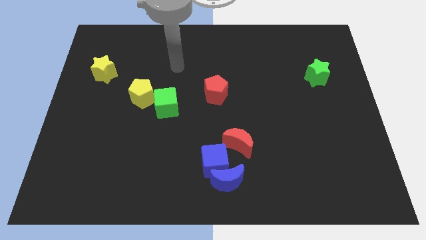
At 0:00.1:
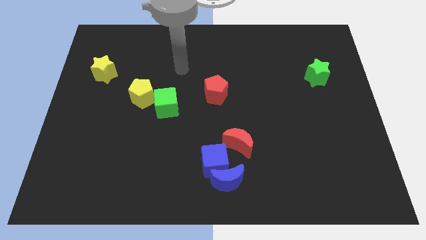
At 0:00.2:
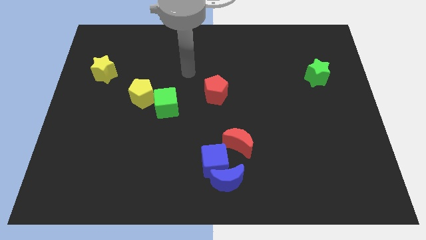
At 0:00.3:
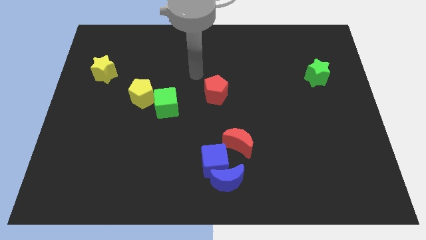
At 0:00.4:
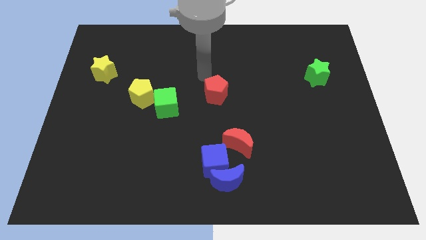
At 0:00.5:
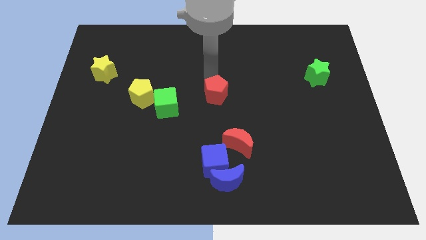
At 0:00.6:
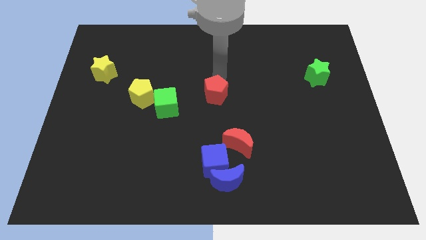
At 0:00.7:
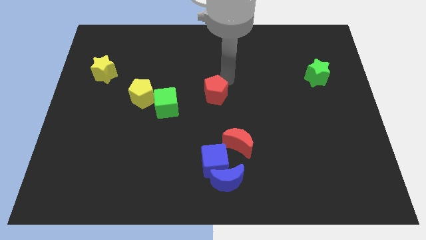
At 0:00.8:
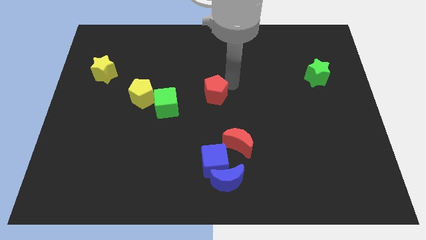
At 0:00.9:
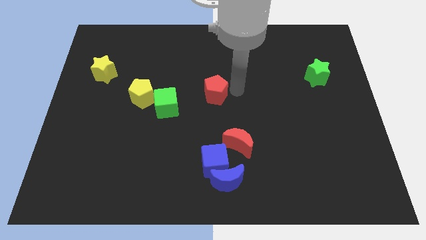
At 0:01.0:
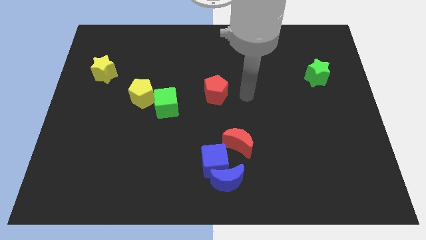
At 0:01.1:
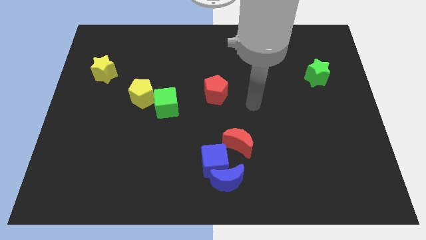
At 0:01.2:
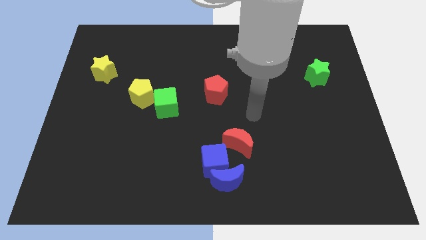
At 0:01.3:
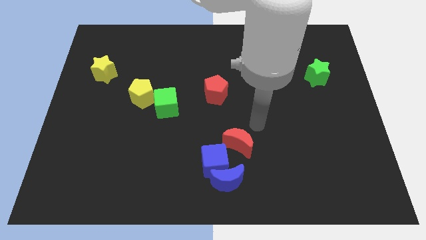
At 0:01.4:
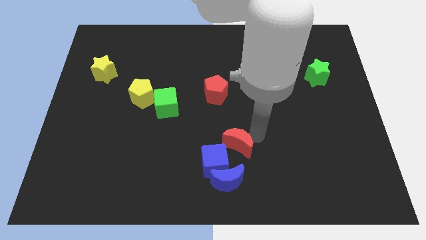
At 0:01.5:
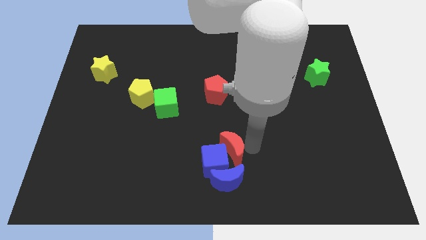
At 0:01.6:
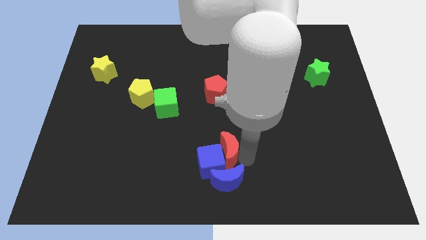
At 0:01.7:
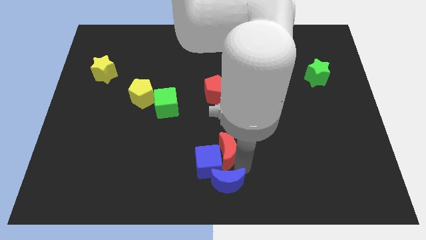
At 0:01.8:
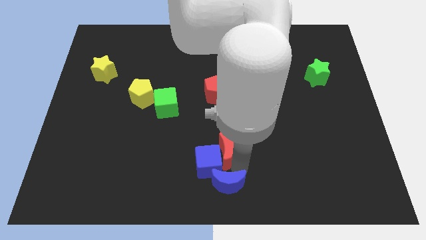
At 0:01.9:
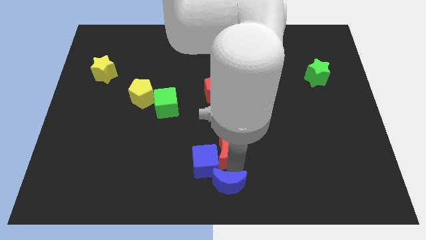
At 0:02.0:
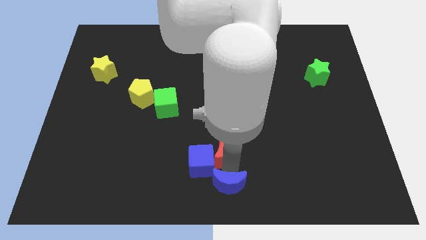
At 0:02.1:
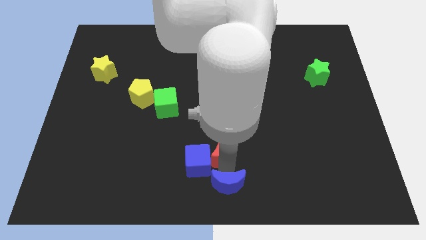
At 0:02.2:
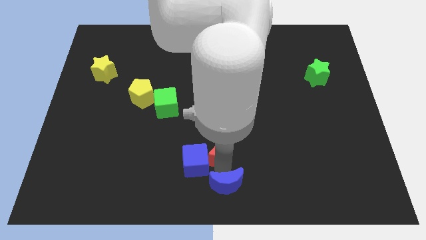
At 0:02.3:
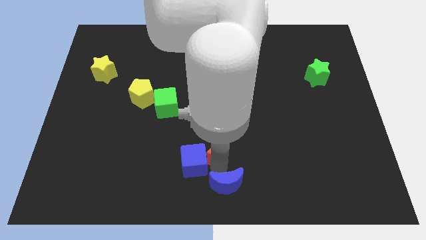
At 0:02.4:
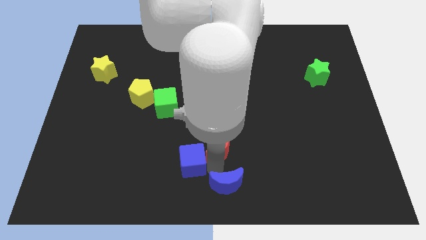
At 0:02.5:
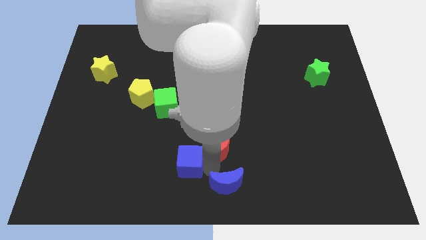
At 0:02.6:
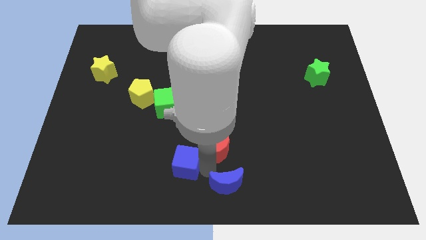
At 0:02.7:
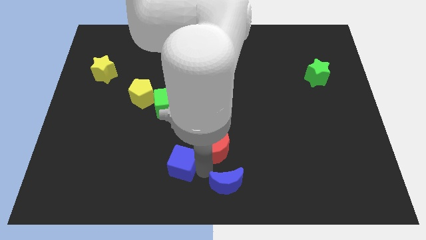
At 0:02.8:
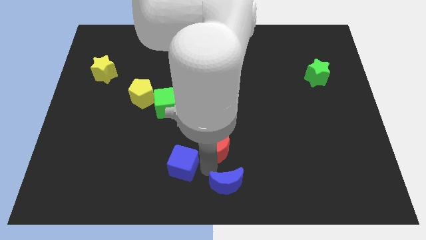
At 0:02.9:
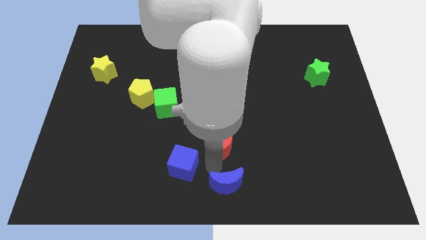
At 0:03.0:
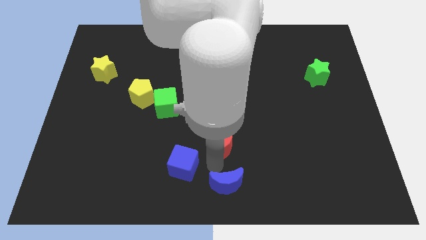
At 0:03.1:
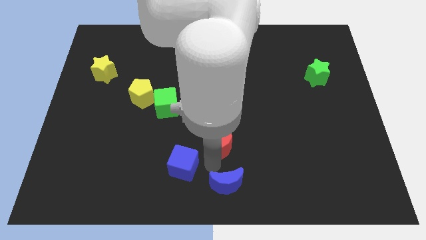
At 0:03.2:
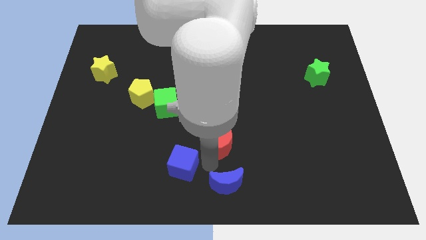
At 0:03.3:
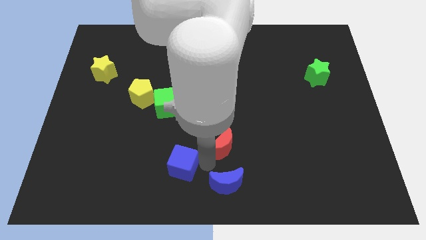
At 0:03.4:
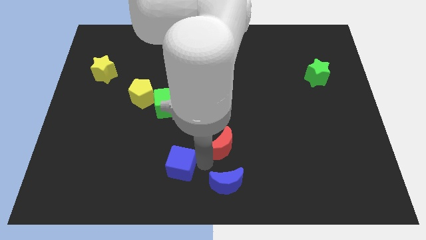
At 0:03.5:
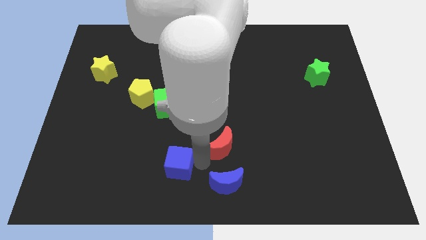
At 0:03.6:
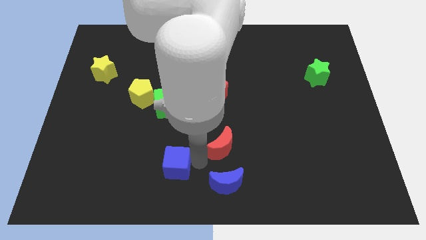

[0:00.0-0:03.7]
separate the blue cube from the blue moon and red moon

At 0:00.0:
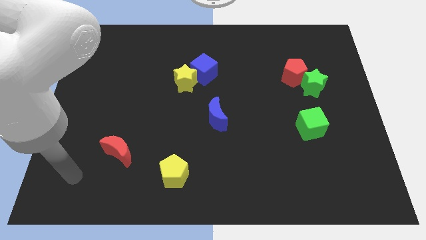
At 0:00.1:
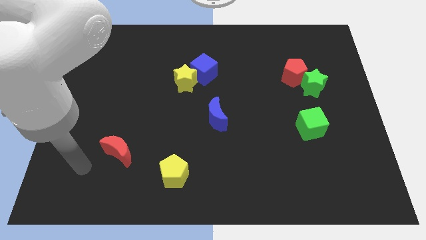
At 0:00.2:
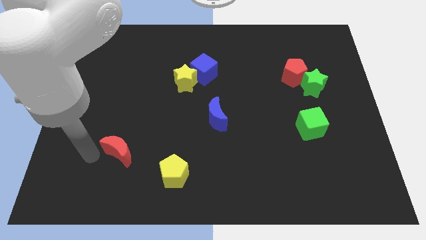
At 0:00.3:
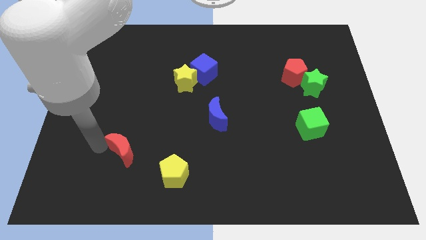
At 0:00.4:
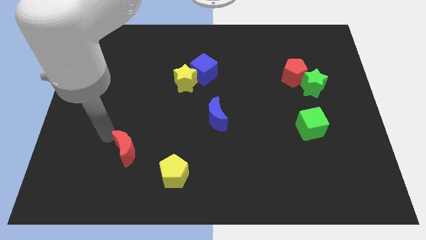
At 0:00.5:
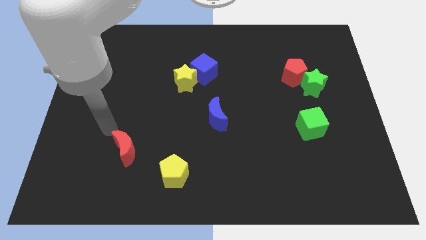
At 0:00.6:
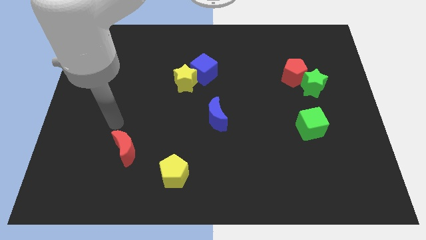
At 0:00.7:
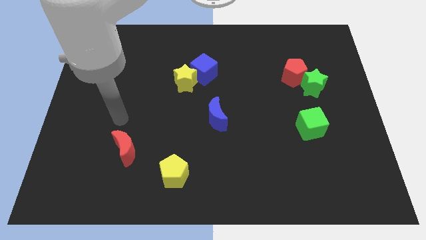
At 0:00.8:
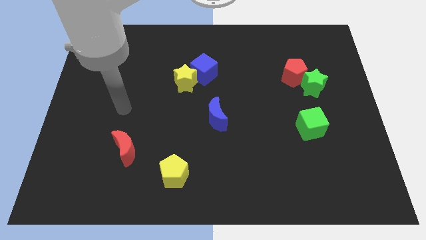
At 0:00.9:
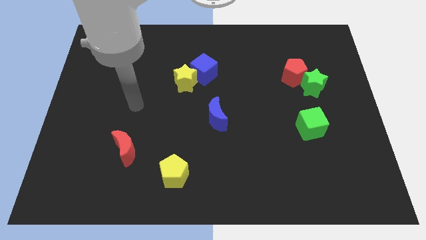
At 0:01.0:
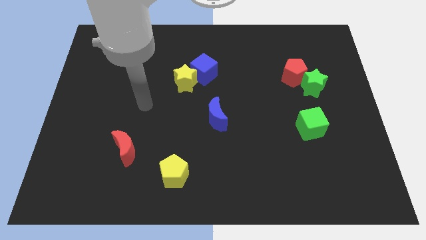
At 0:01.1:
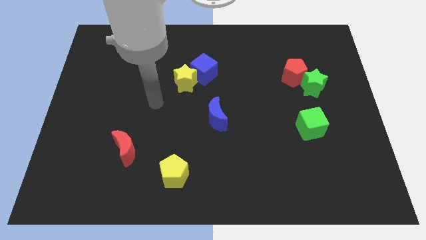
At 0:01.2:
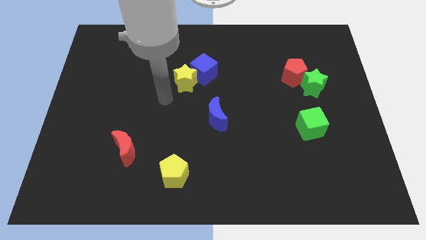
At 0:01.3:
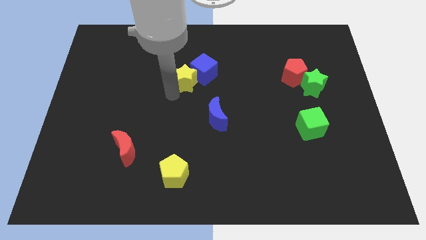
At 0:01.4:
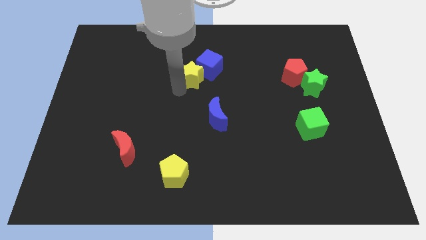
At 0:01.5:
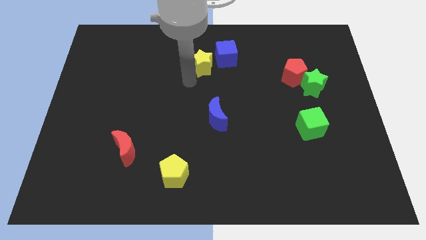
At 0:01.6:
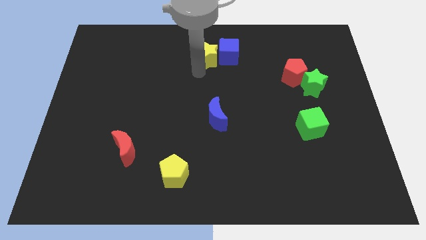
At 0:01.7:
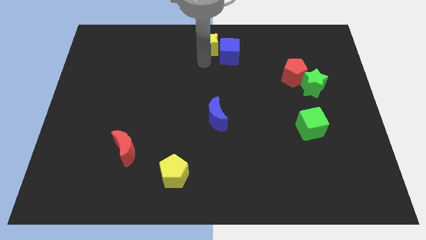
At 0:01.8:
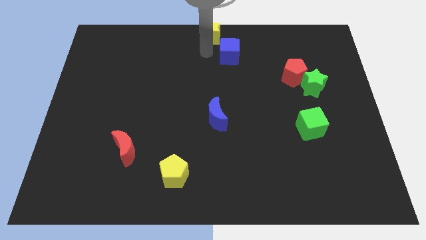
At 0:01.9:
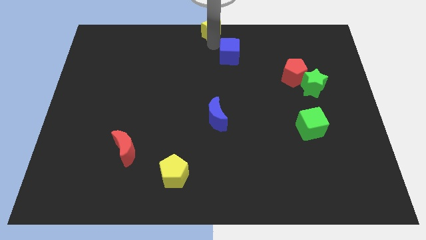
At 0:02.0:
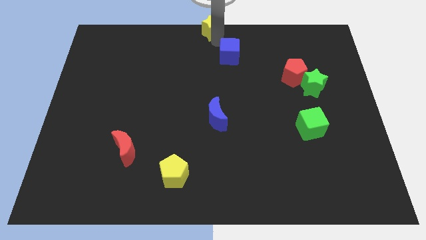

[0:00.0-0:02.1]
pull the blue cube apart from the yellow star

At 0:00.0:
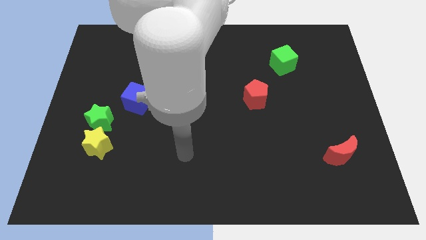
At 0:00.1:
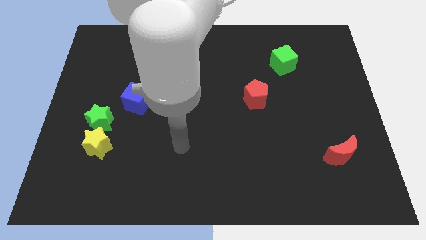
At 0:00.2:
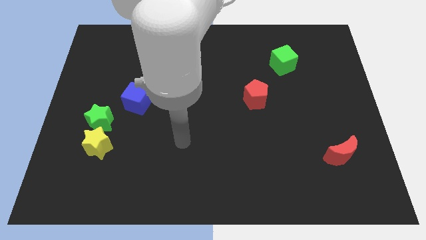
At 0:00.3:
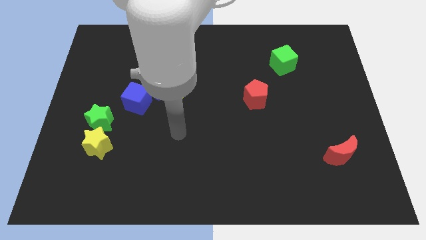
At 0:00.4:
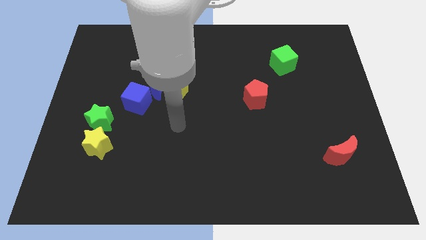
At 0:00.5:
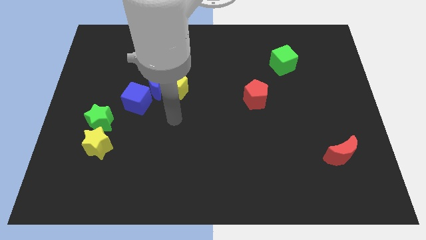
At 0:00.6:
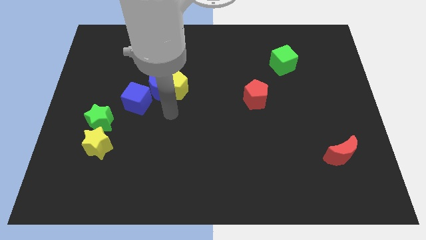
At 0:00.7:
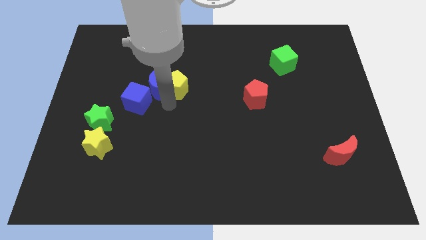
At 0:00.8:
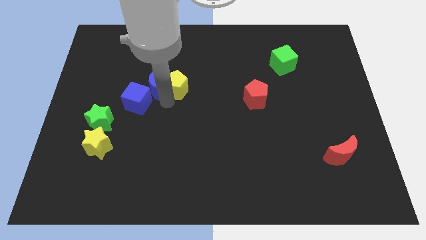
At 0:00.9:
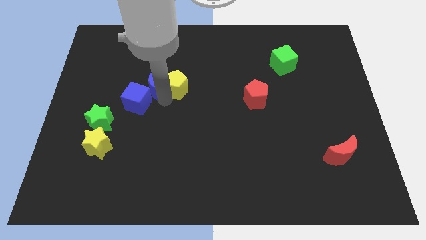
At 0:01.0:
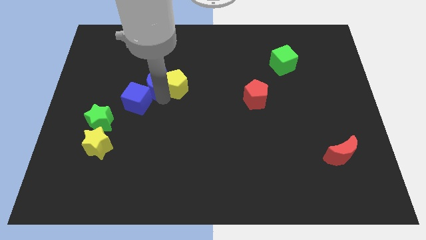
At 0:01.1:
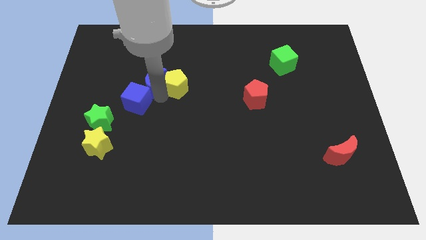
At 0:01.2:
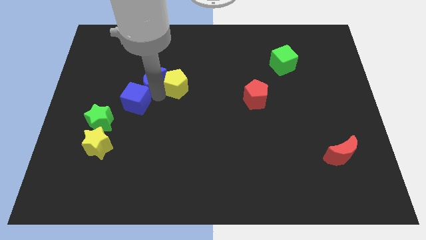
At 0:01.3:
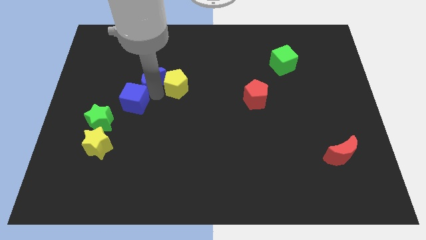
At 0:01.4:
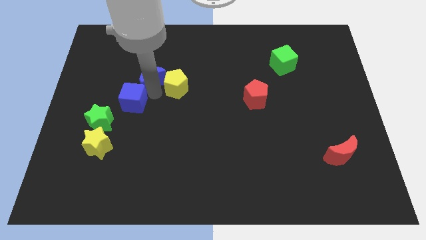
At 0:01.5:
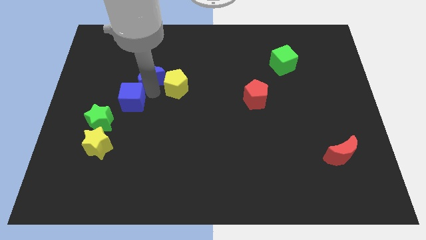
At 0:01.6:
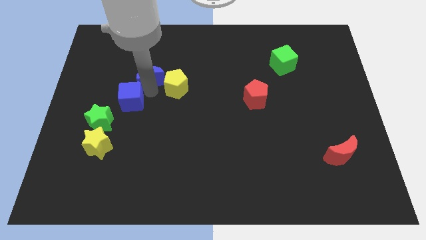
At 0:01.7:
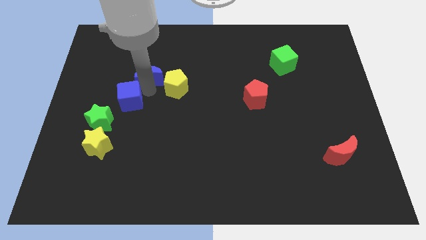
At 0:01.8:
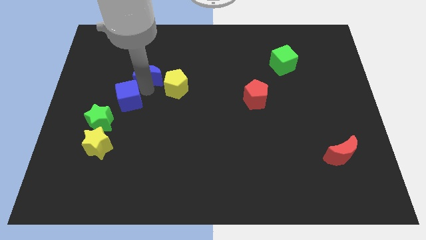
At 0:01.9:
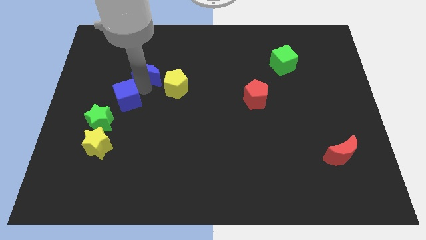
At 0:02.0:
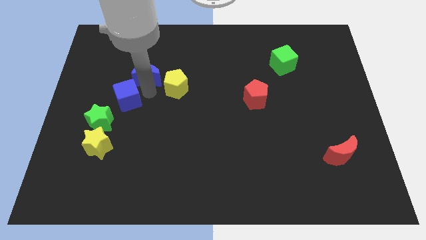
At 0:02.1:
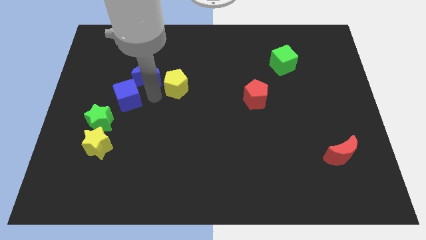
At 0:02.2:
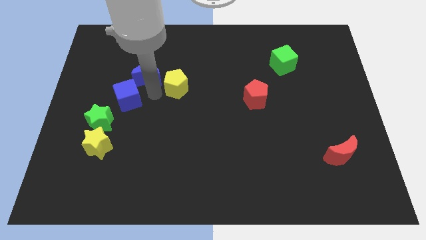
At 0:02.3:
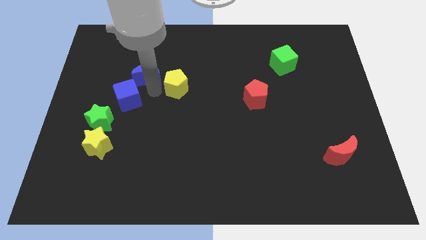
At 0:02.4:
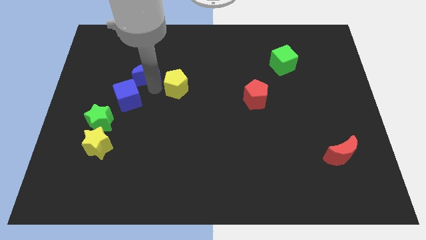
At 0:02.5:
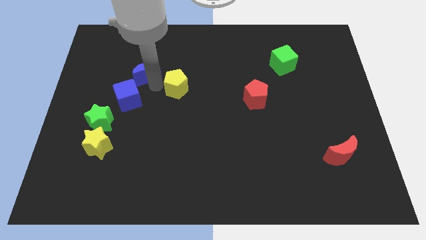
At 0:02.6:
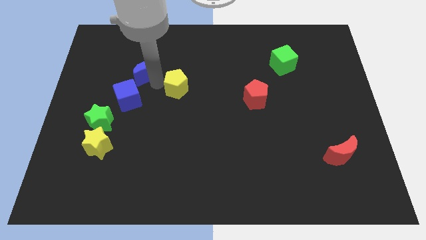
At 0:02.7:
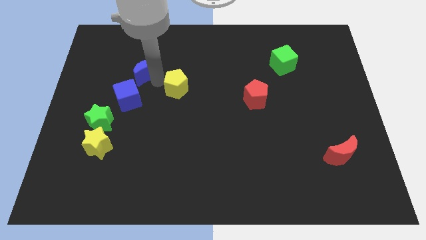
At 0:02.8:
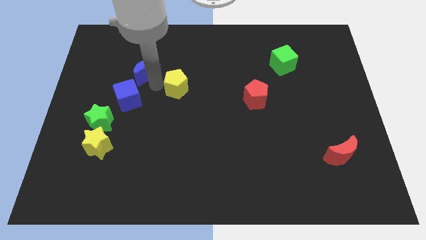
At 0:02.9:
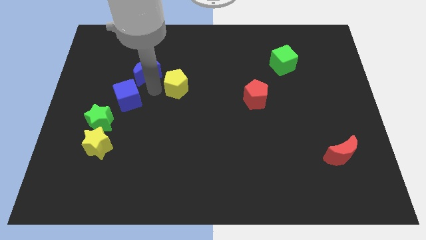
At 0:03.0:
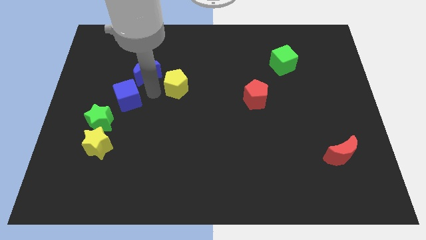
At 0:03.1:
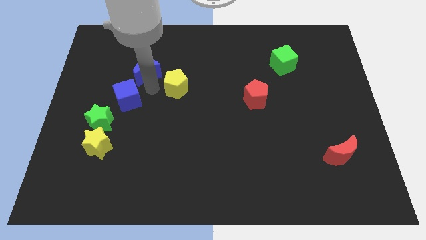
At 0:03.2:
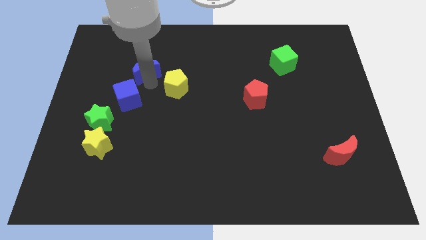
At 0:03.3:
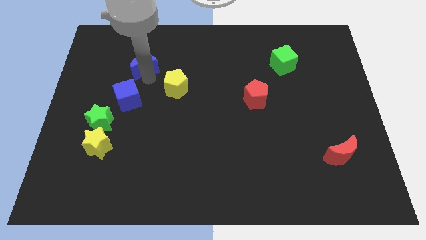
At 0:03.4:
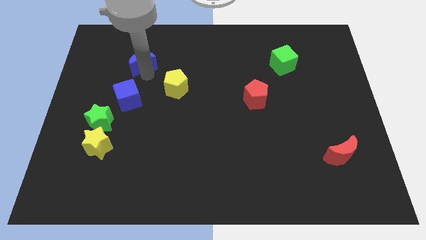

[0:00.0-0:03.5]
move the blue moon away from the yellow pentagon and blue cube
